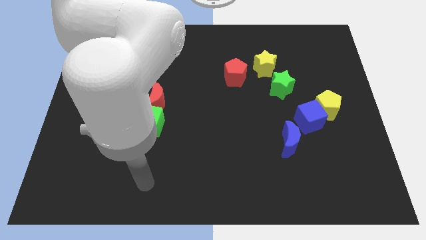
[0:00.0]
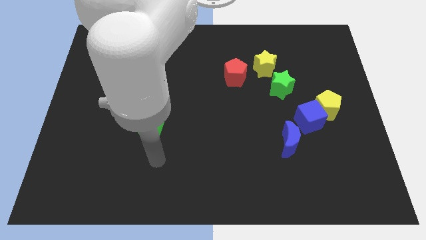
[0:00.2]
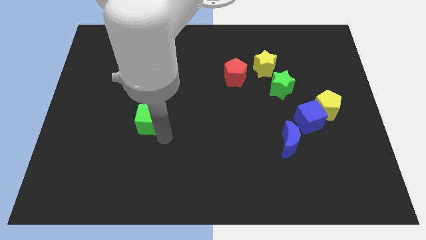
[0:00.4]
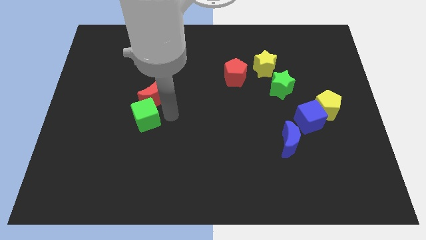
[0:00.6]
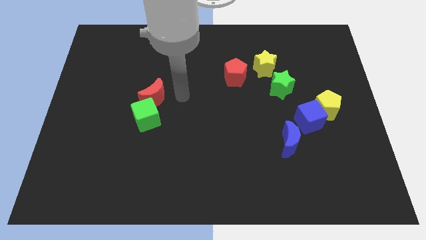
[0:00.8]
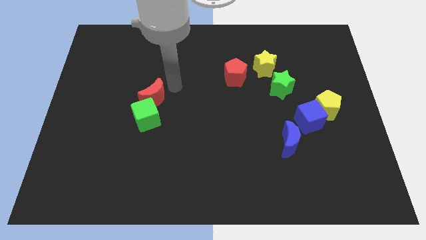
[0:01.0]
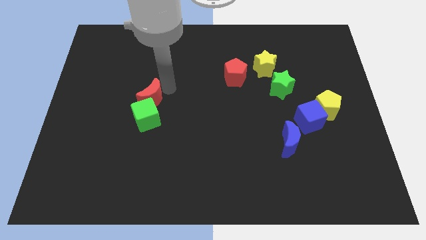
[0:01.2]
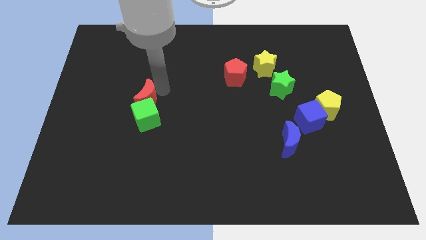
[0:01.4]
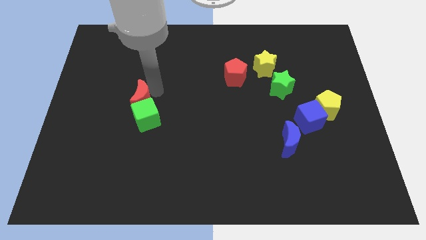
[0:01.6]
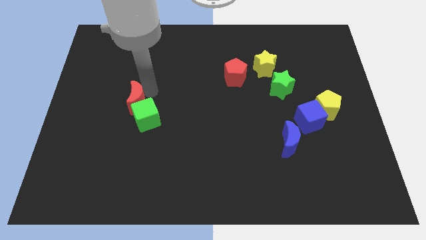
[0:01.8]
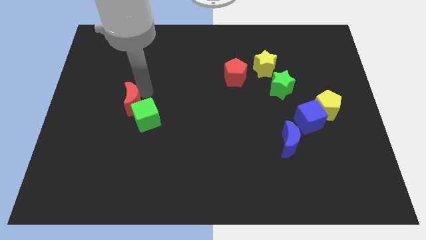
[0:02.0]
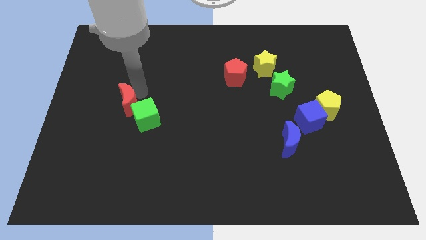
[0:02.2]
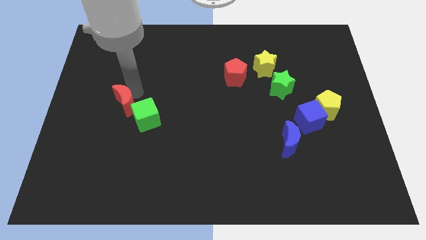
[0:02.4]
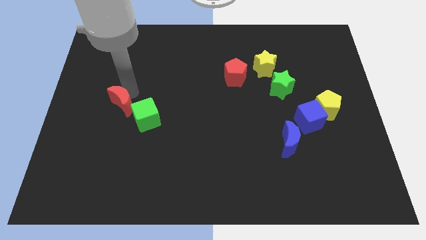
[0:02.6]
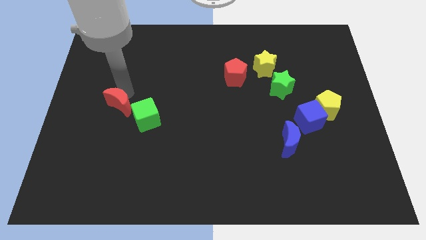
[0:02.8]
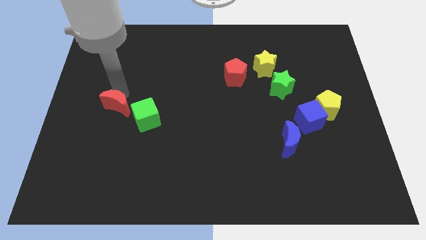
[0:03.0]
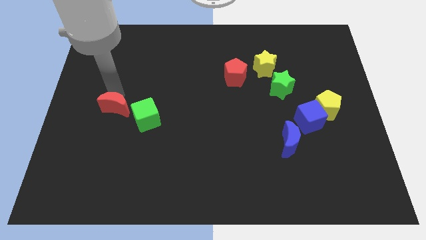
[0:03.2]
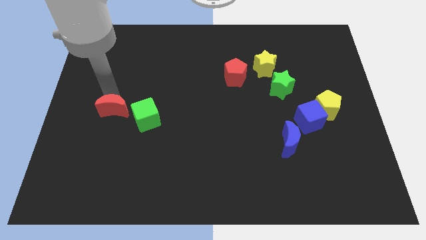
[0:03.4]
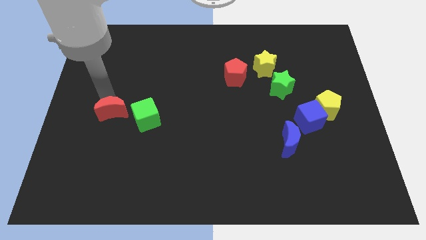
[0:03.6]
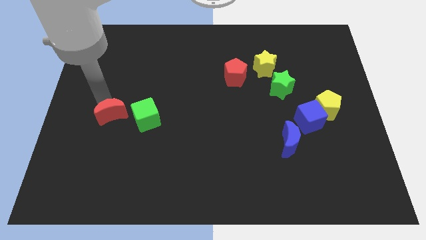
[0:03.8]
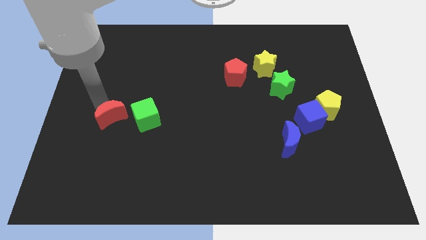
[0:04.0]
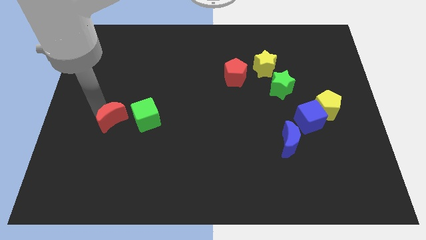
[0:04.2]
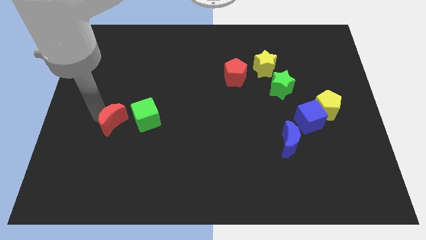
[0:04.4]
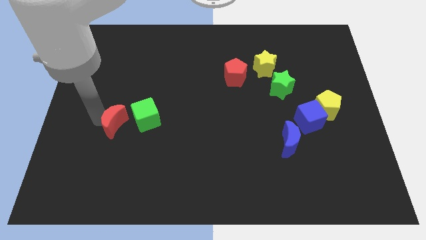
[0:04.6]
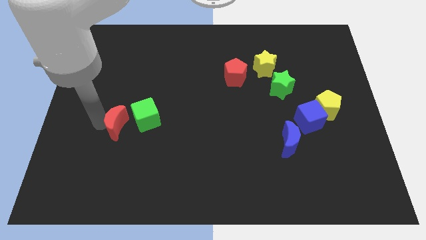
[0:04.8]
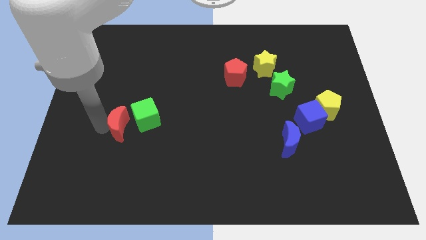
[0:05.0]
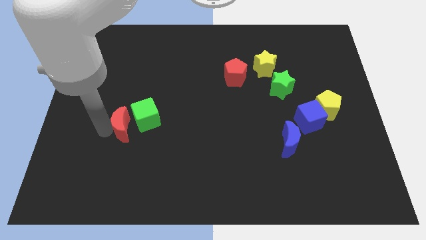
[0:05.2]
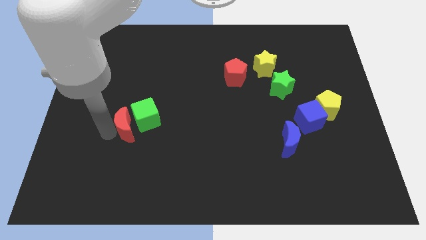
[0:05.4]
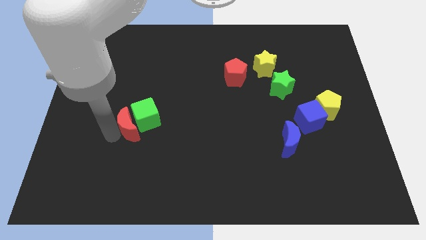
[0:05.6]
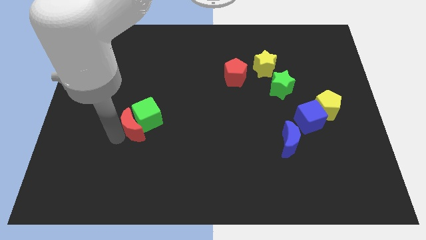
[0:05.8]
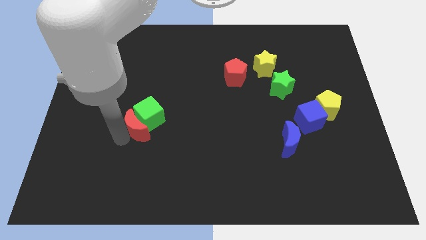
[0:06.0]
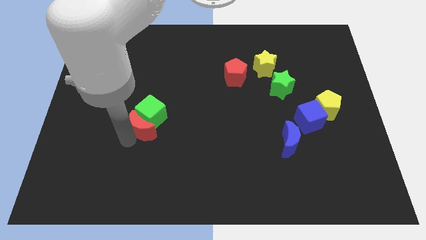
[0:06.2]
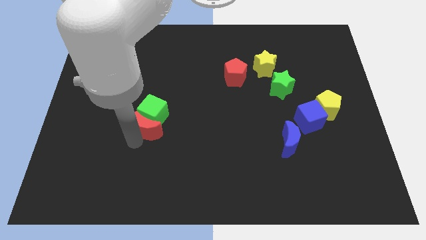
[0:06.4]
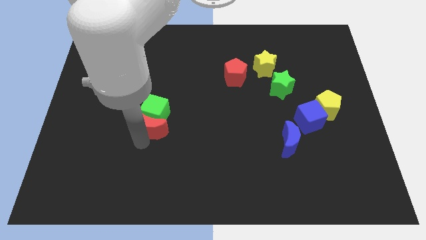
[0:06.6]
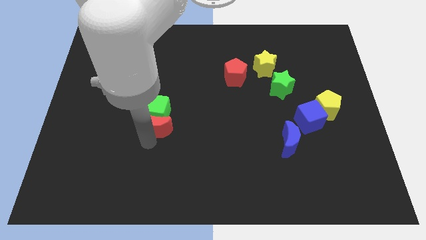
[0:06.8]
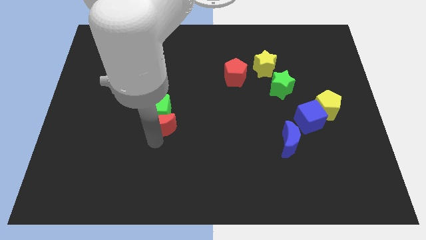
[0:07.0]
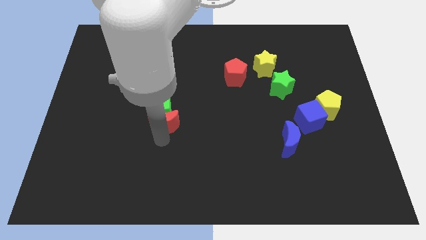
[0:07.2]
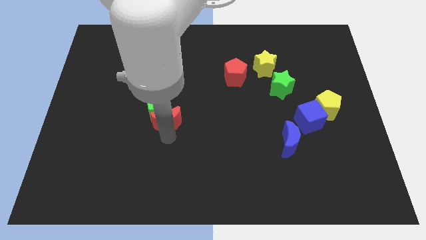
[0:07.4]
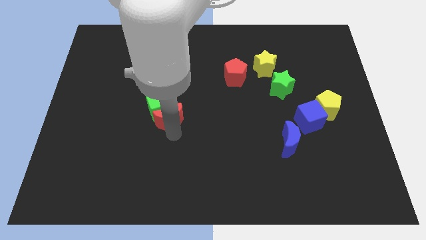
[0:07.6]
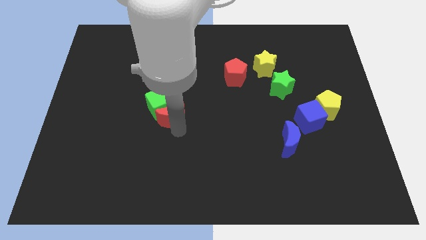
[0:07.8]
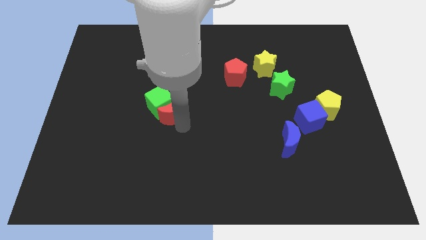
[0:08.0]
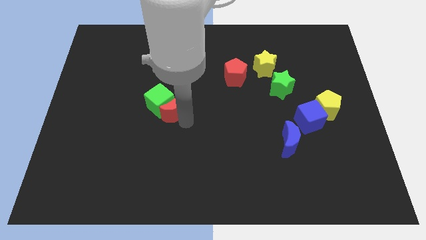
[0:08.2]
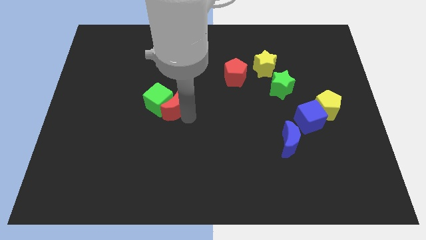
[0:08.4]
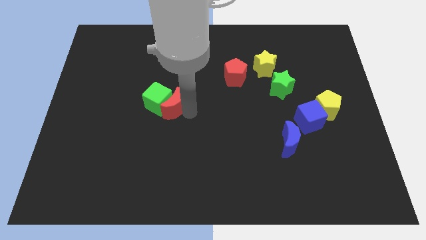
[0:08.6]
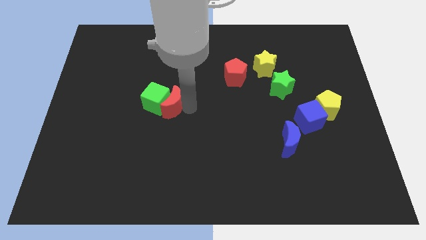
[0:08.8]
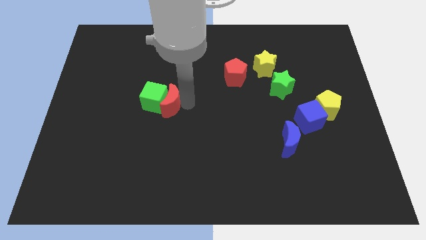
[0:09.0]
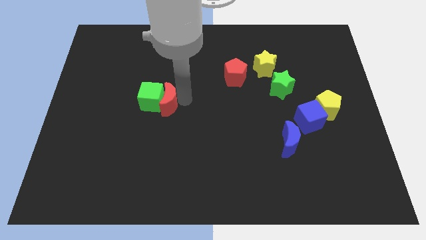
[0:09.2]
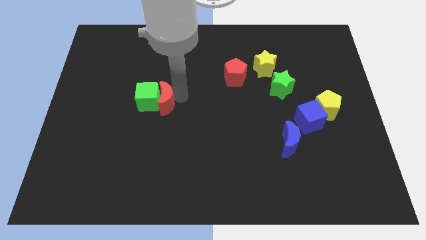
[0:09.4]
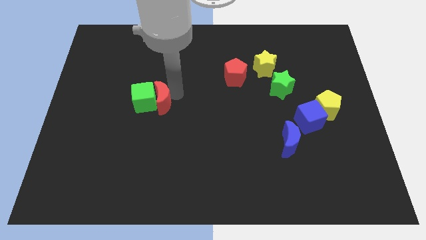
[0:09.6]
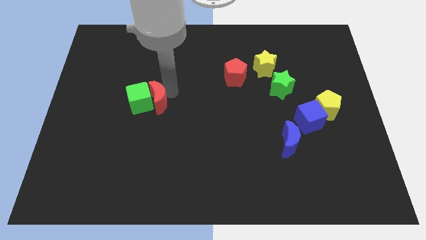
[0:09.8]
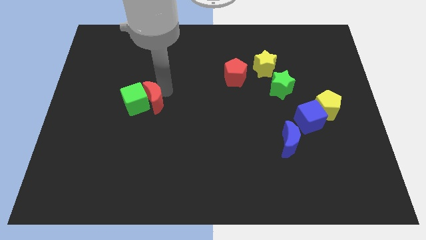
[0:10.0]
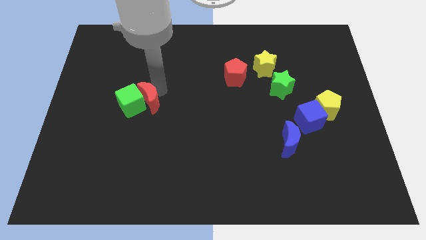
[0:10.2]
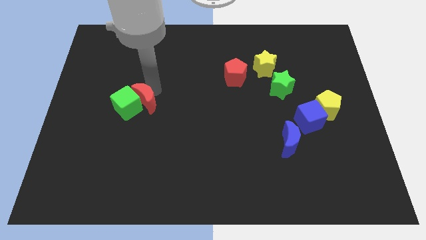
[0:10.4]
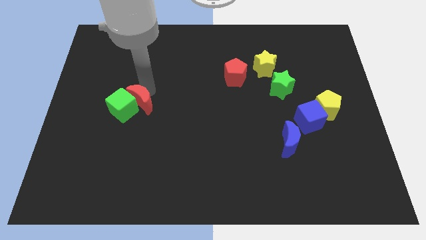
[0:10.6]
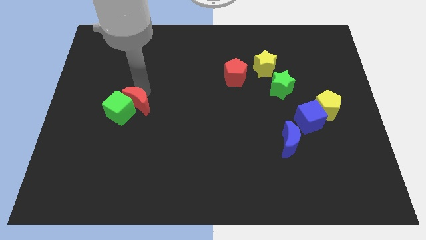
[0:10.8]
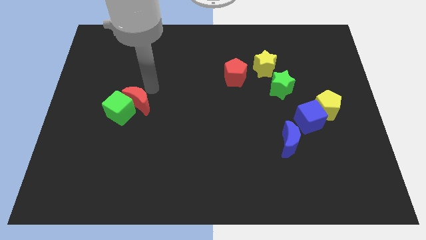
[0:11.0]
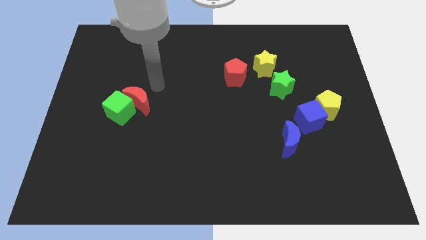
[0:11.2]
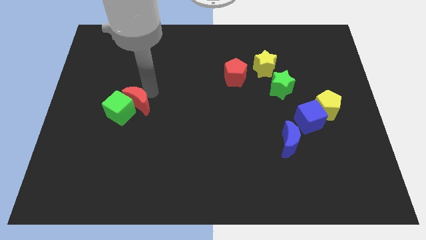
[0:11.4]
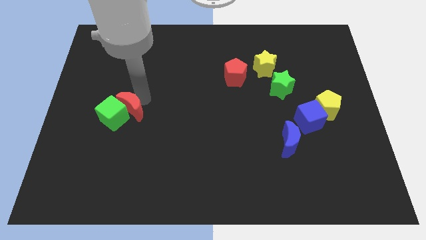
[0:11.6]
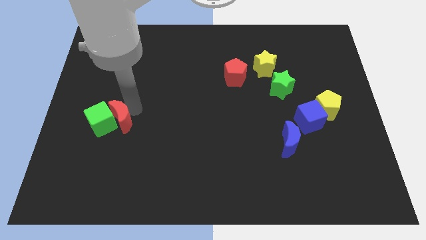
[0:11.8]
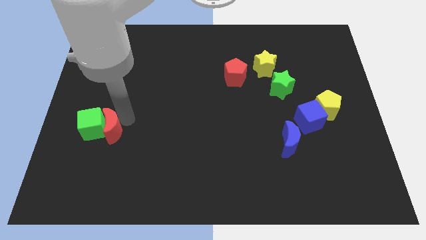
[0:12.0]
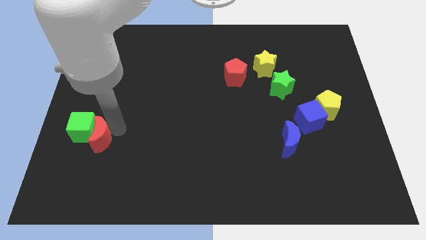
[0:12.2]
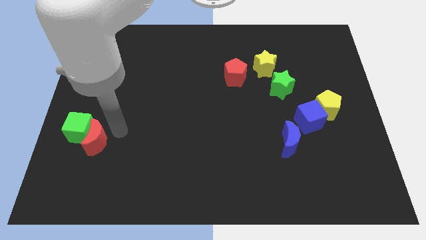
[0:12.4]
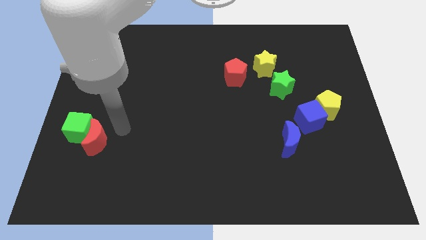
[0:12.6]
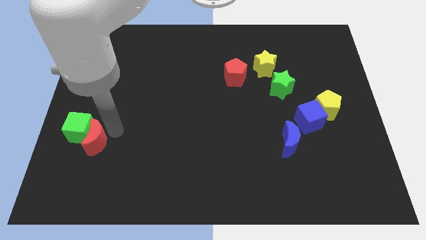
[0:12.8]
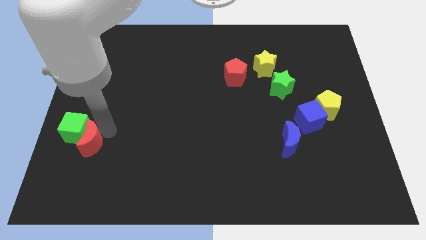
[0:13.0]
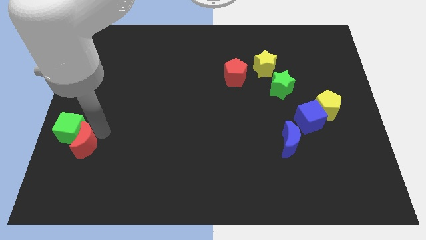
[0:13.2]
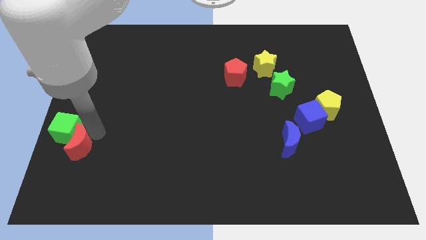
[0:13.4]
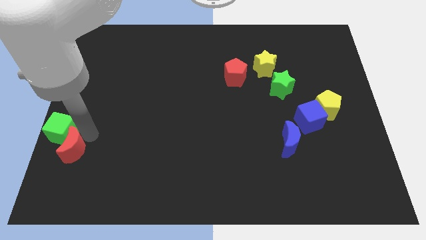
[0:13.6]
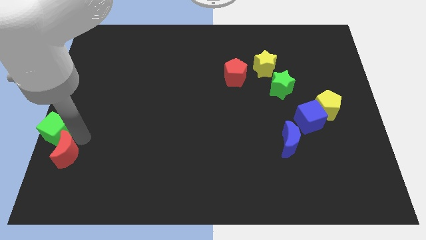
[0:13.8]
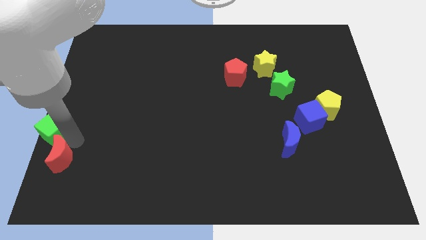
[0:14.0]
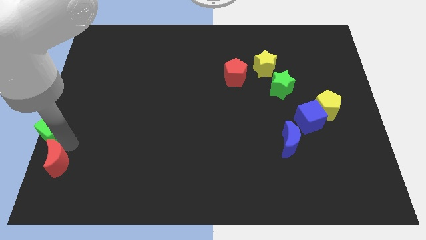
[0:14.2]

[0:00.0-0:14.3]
push the red moon to the lower left corner
